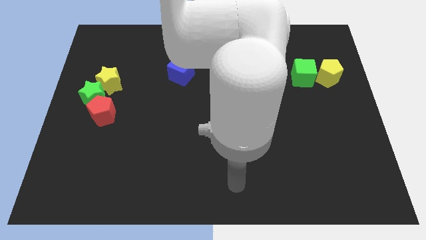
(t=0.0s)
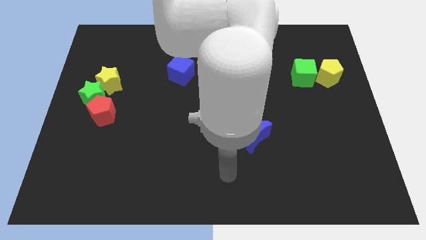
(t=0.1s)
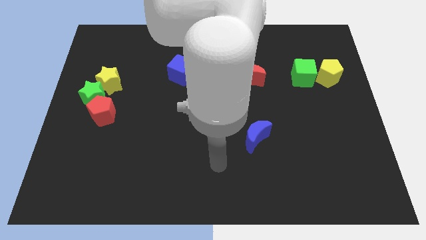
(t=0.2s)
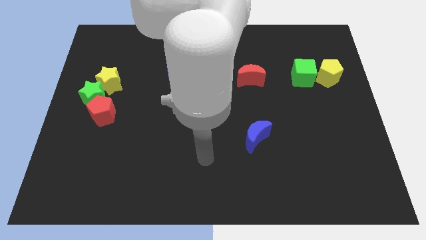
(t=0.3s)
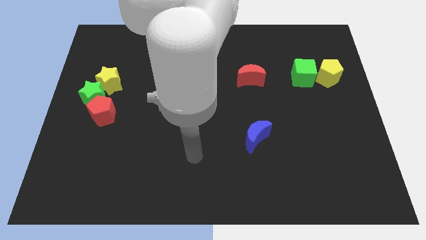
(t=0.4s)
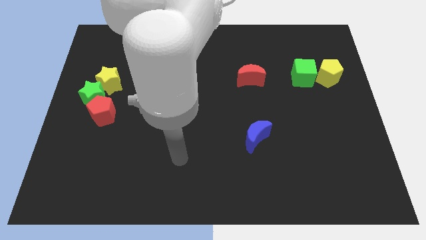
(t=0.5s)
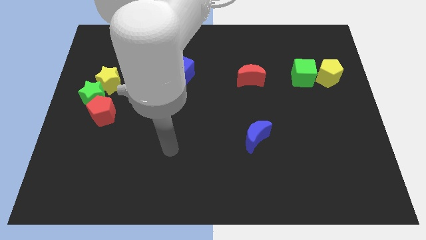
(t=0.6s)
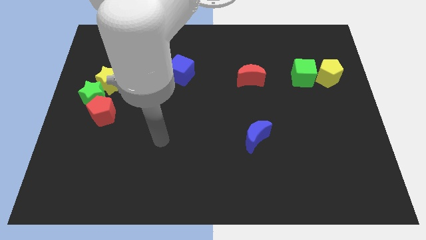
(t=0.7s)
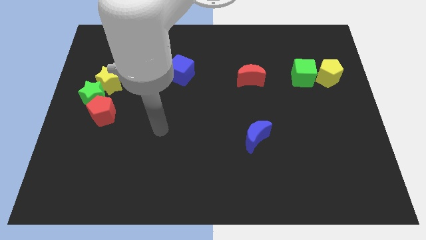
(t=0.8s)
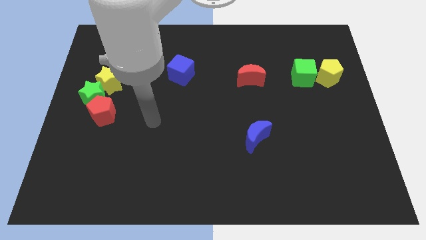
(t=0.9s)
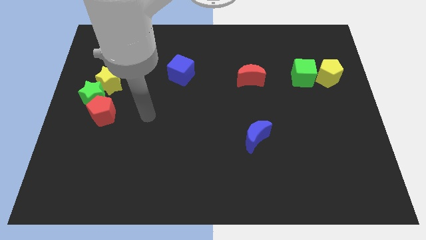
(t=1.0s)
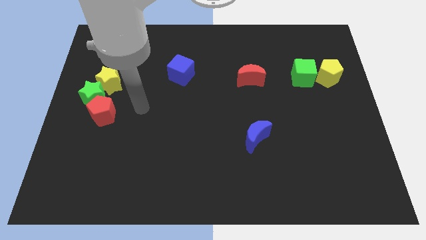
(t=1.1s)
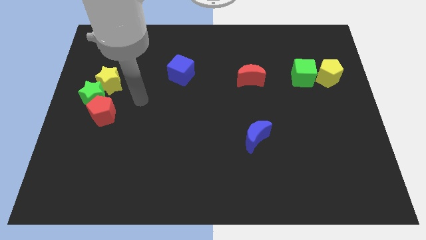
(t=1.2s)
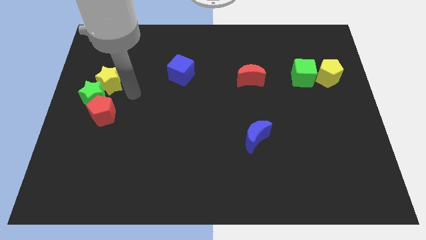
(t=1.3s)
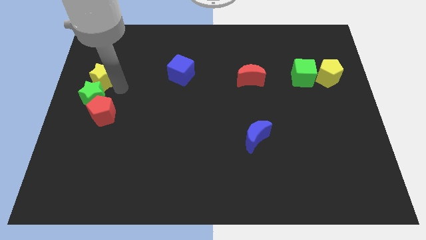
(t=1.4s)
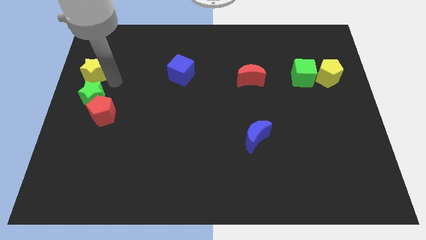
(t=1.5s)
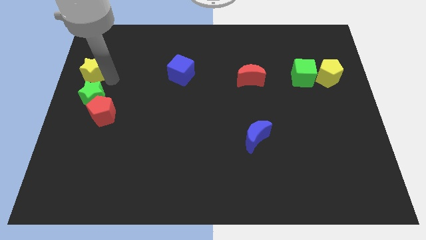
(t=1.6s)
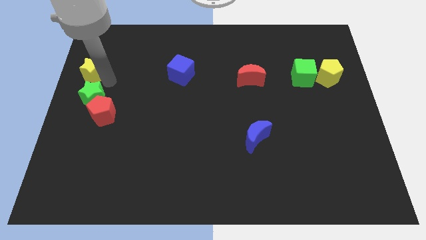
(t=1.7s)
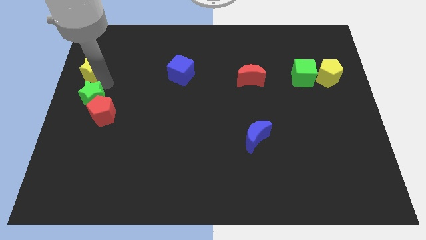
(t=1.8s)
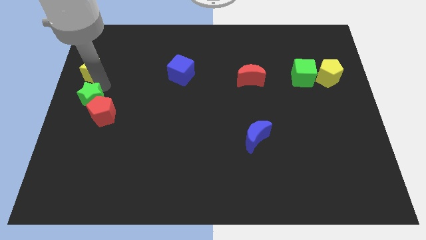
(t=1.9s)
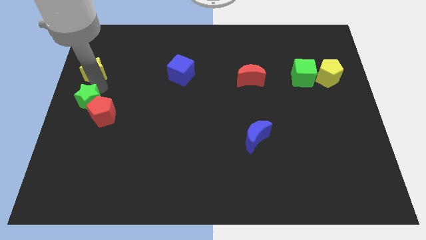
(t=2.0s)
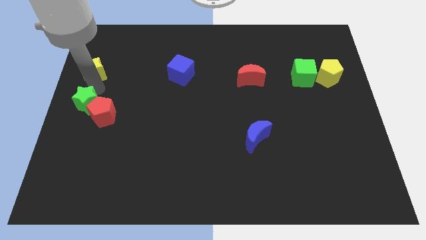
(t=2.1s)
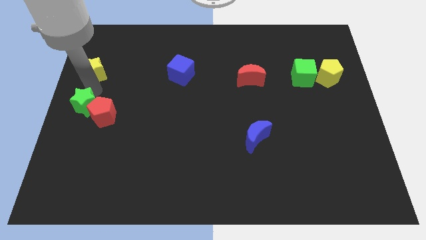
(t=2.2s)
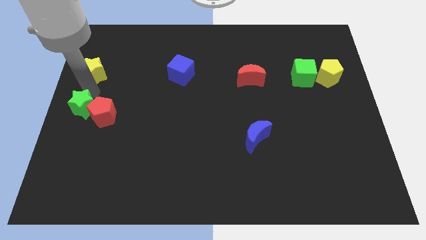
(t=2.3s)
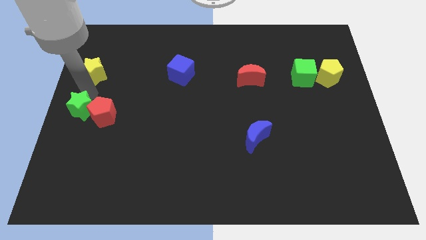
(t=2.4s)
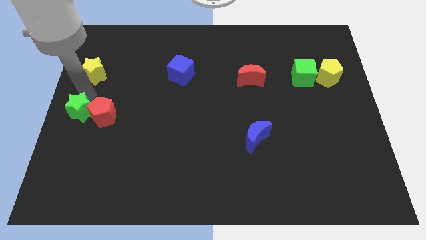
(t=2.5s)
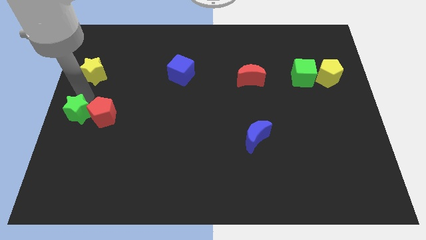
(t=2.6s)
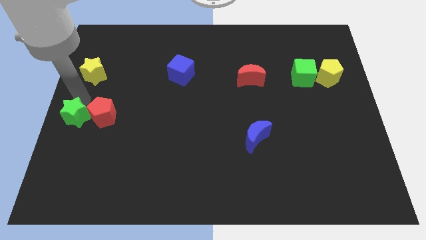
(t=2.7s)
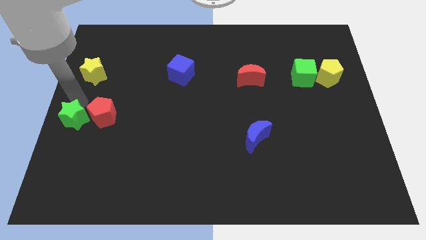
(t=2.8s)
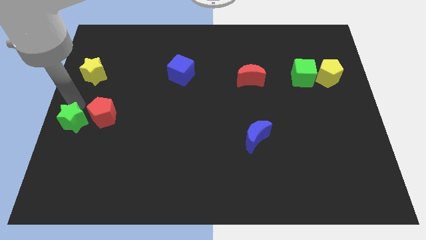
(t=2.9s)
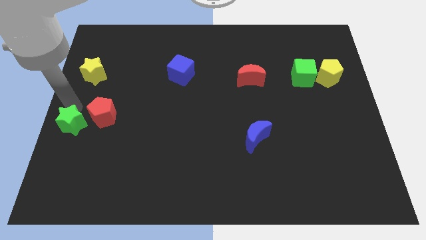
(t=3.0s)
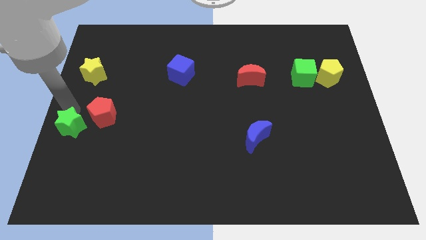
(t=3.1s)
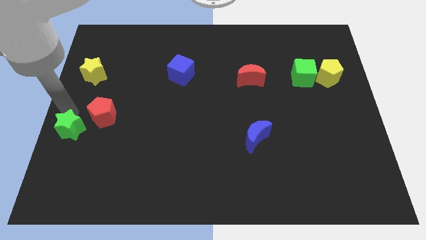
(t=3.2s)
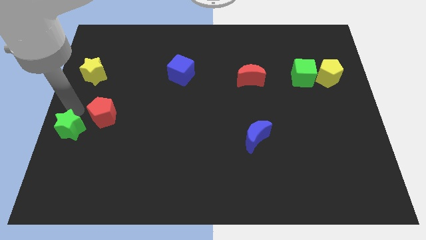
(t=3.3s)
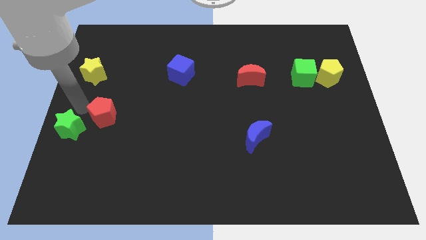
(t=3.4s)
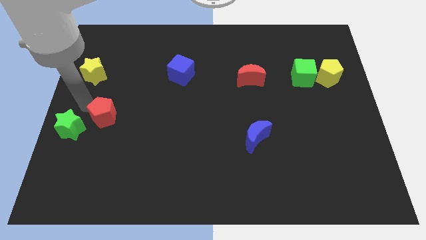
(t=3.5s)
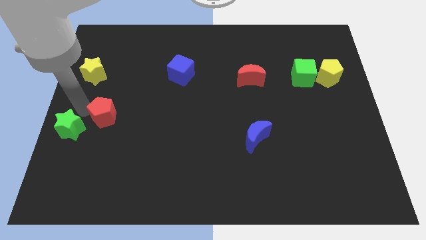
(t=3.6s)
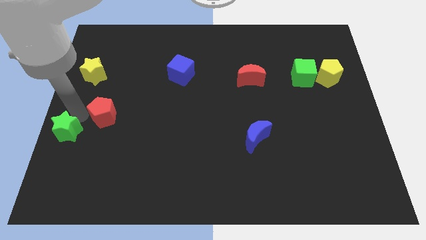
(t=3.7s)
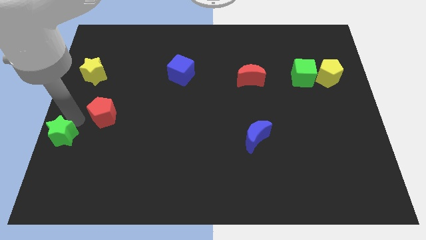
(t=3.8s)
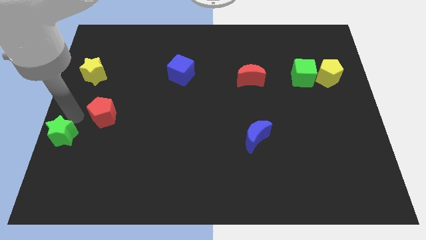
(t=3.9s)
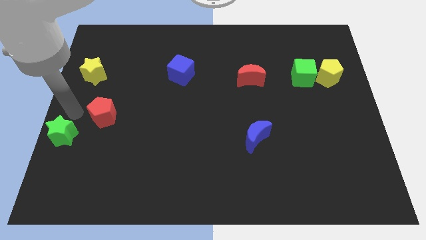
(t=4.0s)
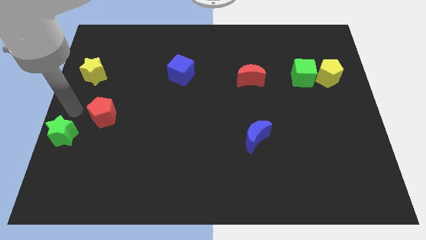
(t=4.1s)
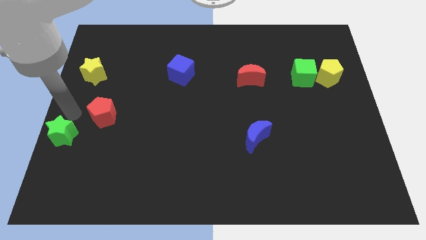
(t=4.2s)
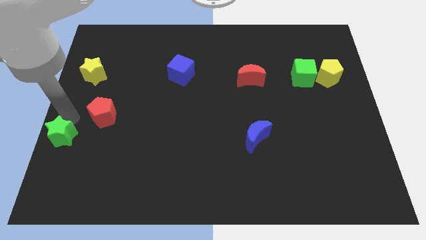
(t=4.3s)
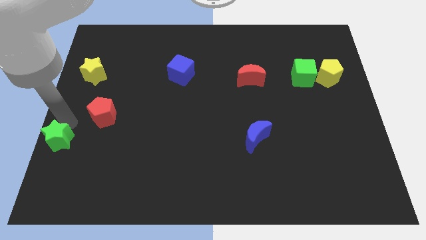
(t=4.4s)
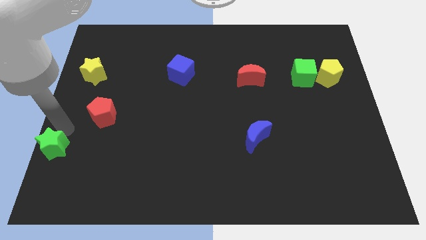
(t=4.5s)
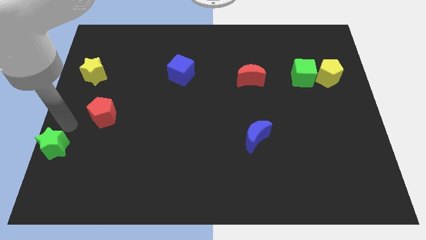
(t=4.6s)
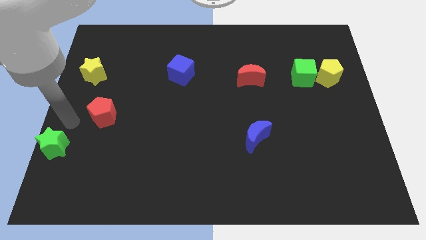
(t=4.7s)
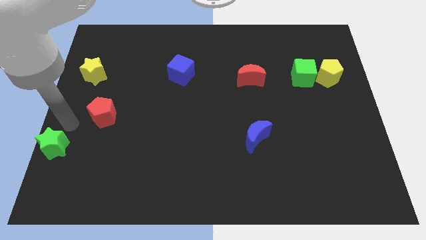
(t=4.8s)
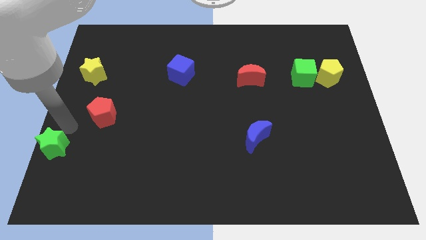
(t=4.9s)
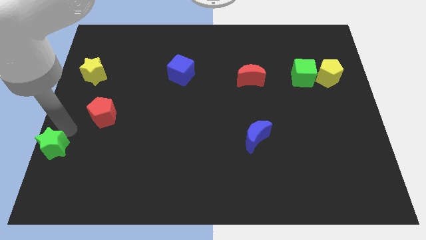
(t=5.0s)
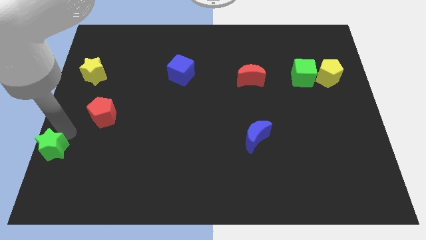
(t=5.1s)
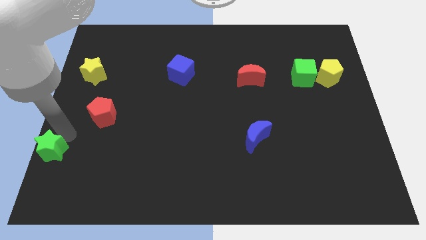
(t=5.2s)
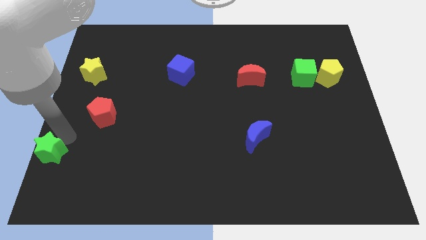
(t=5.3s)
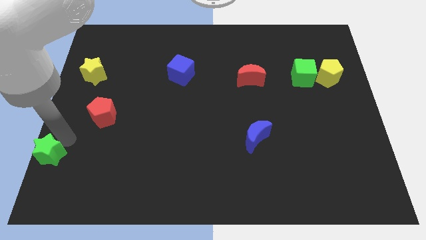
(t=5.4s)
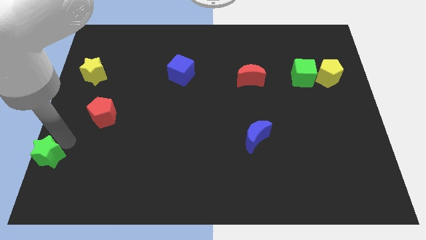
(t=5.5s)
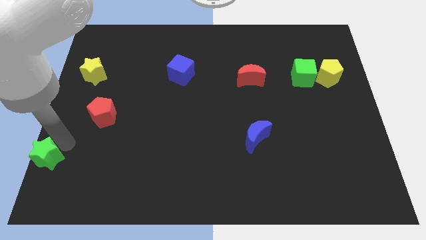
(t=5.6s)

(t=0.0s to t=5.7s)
push the green star to the lower left corner

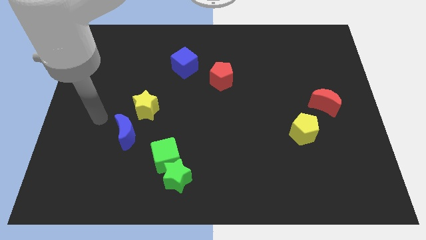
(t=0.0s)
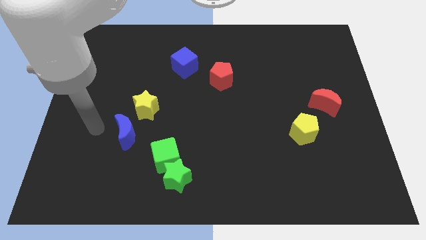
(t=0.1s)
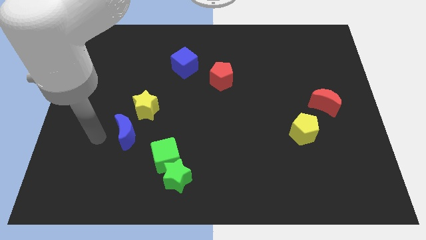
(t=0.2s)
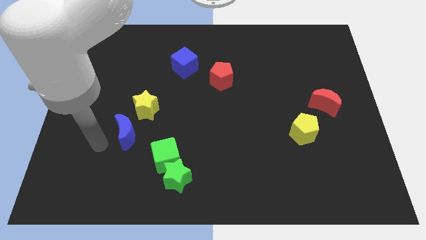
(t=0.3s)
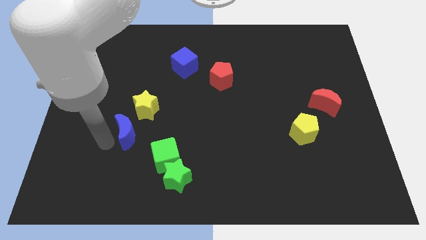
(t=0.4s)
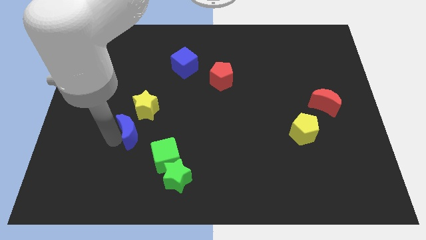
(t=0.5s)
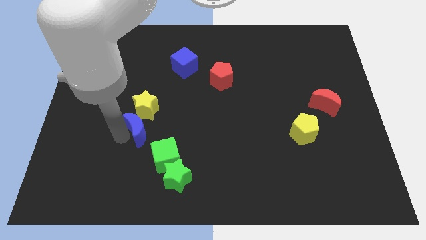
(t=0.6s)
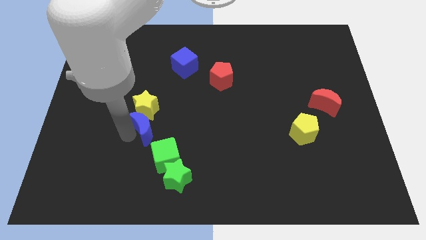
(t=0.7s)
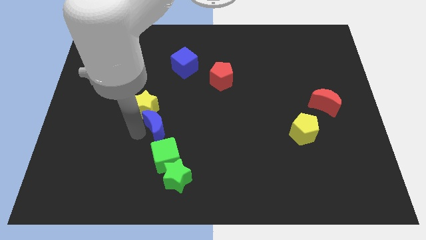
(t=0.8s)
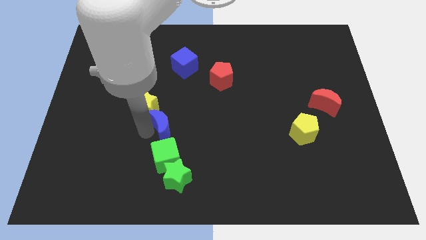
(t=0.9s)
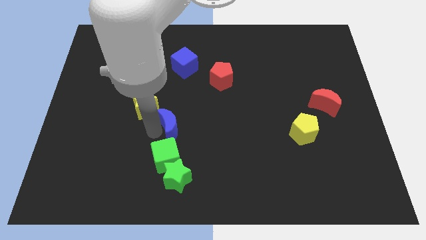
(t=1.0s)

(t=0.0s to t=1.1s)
slide the blue moon to the center
